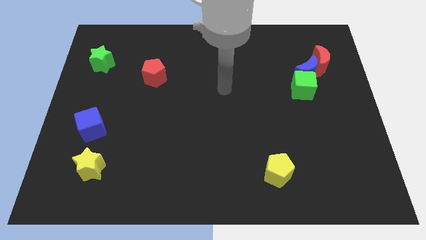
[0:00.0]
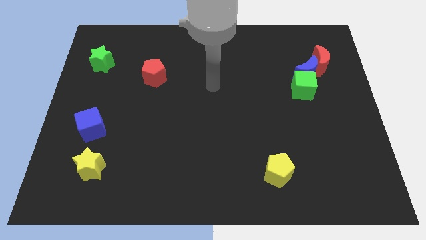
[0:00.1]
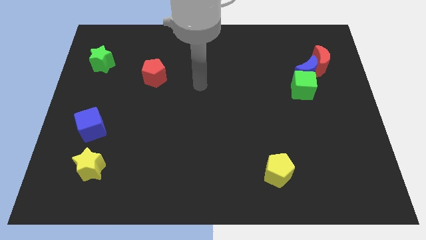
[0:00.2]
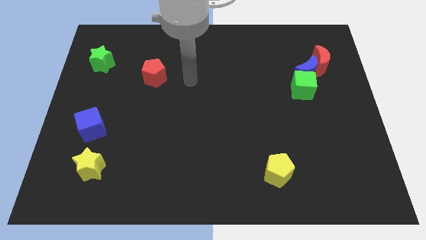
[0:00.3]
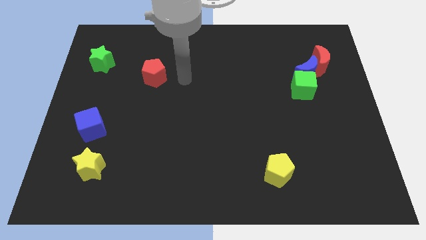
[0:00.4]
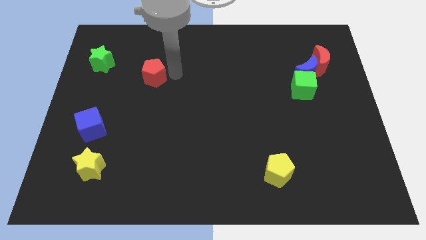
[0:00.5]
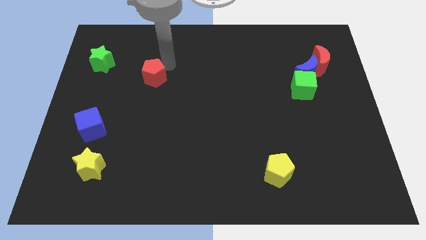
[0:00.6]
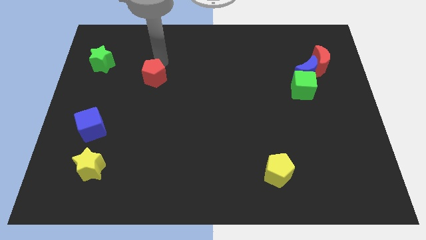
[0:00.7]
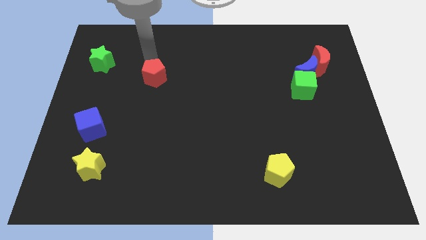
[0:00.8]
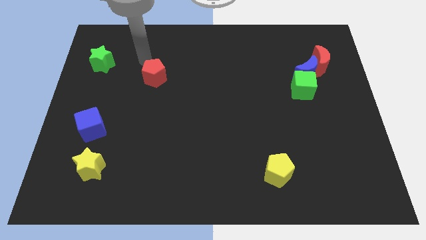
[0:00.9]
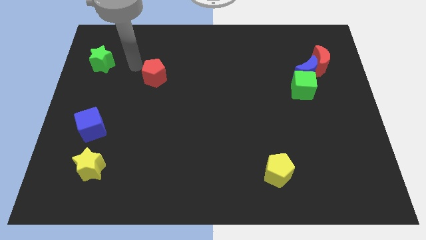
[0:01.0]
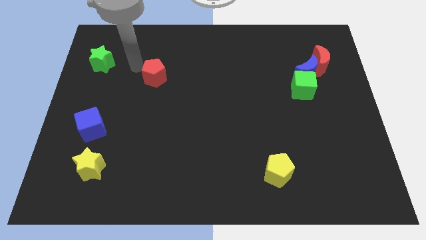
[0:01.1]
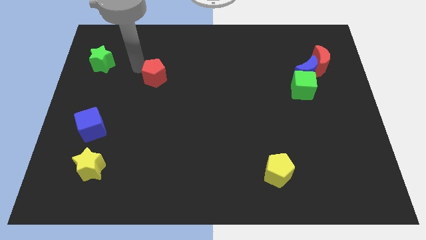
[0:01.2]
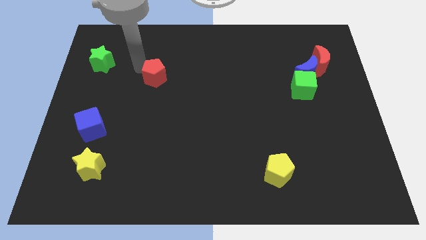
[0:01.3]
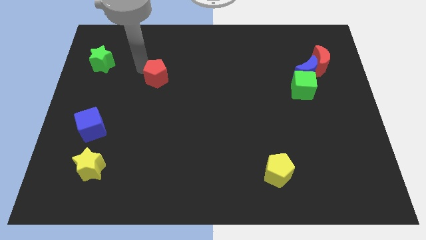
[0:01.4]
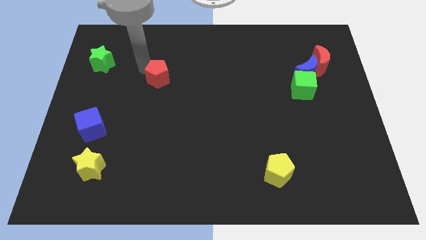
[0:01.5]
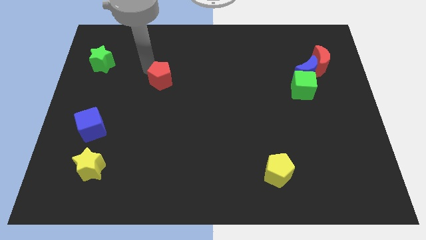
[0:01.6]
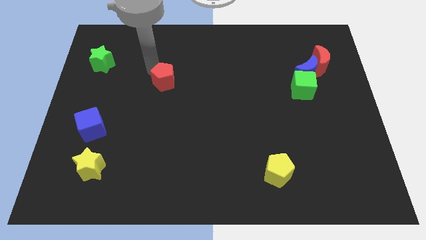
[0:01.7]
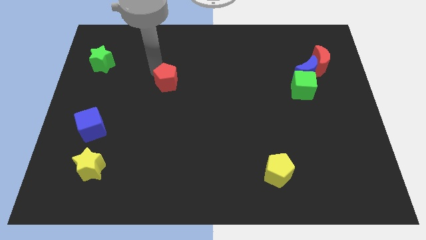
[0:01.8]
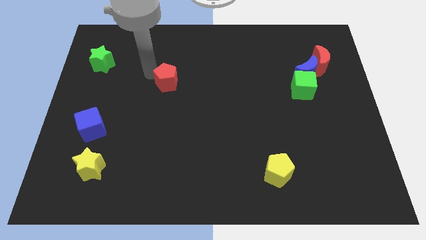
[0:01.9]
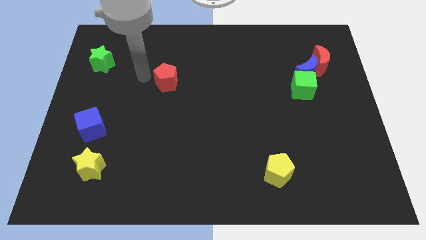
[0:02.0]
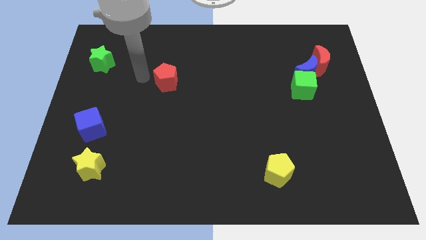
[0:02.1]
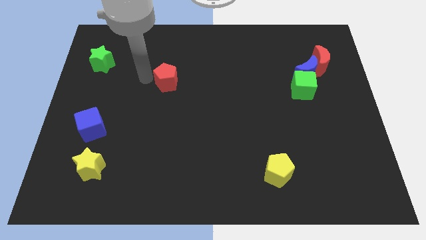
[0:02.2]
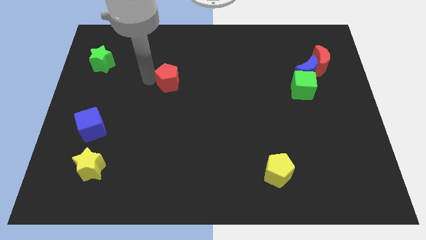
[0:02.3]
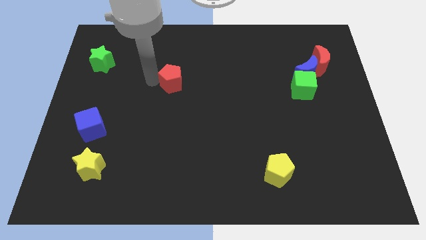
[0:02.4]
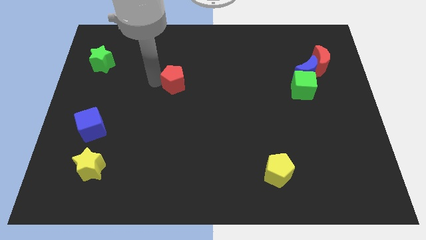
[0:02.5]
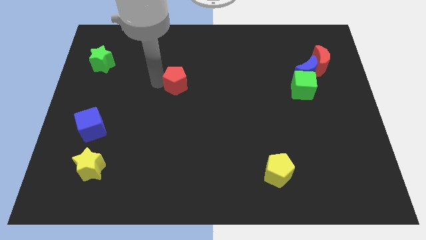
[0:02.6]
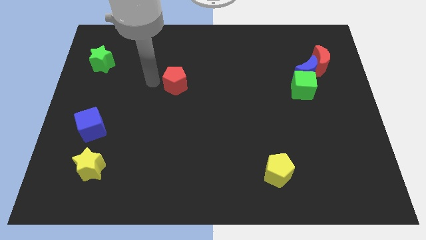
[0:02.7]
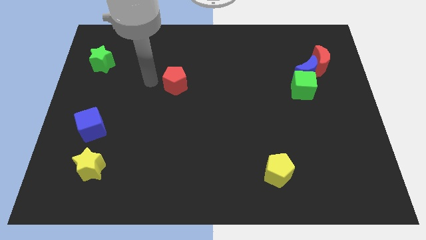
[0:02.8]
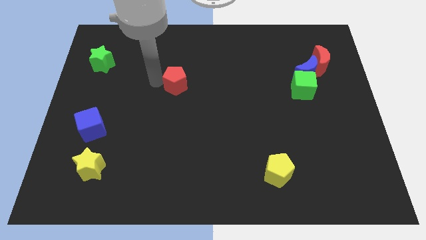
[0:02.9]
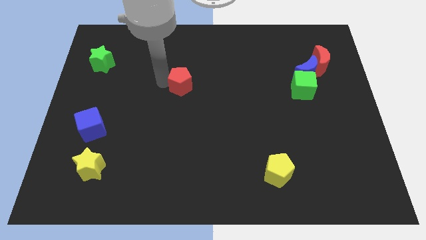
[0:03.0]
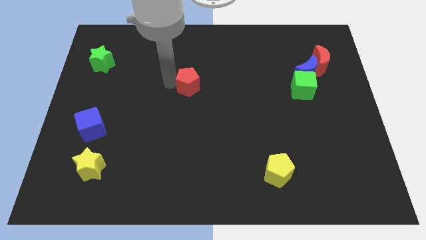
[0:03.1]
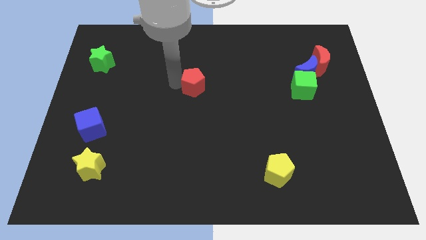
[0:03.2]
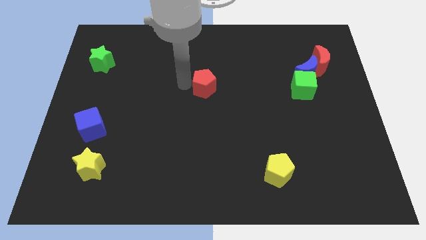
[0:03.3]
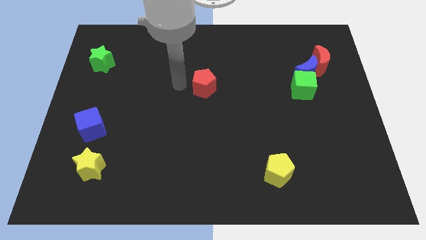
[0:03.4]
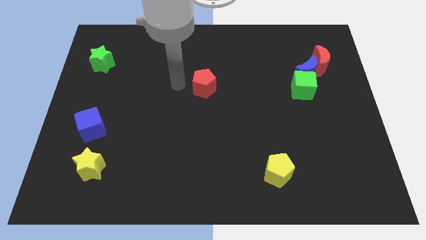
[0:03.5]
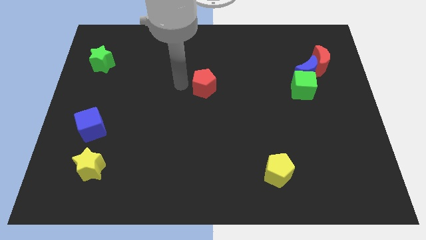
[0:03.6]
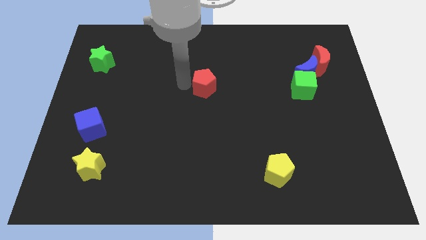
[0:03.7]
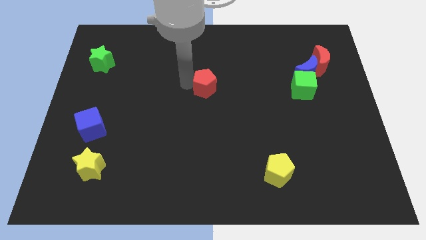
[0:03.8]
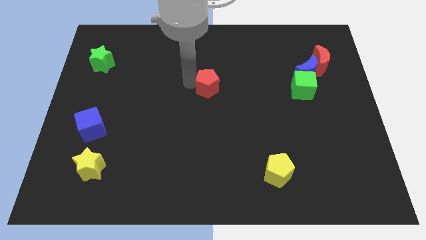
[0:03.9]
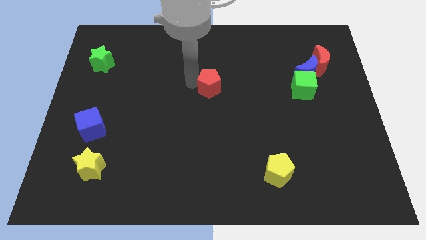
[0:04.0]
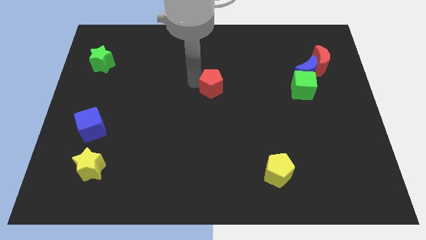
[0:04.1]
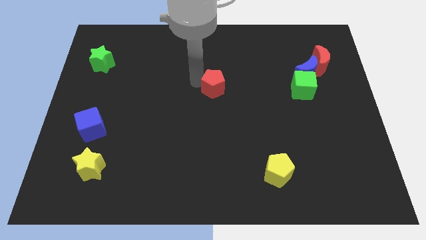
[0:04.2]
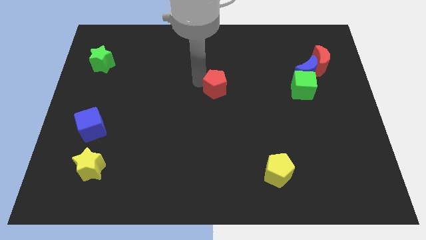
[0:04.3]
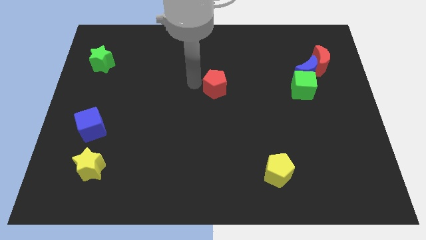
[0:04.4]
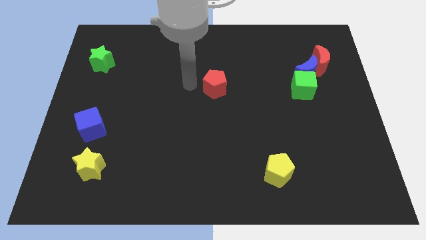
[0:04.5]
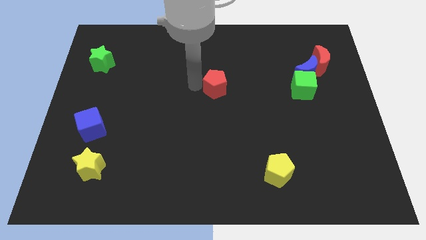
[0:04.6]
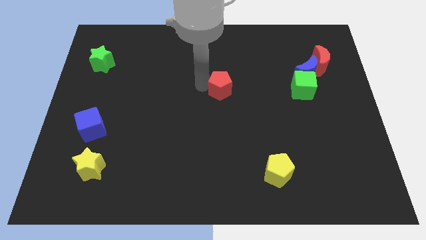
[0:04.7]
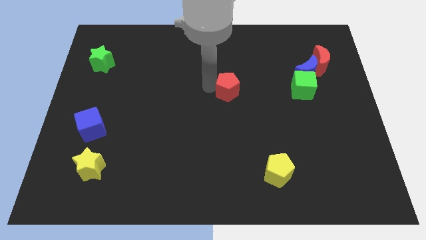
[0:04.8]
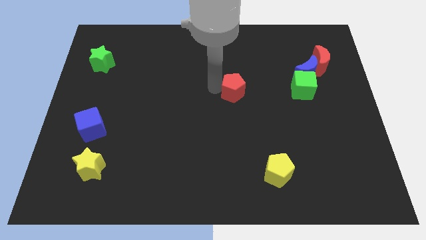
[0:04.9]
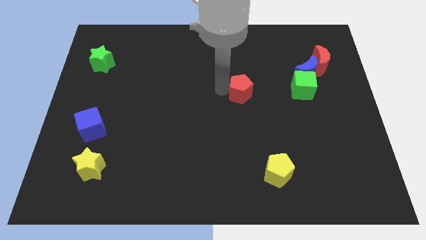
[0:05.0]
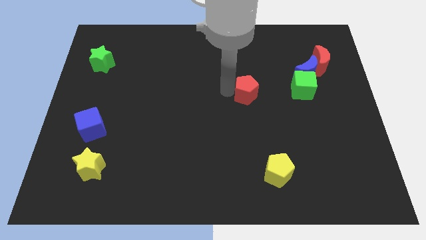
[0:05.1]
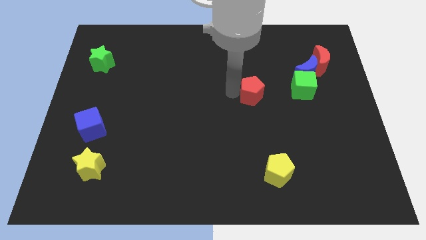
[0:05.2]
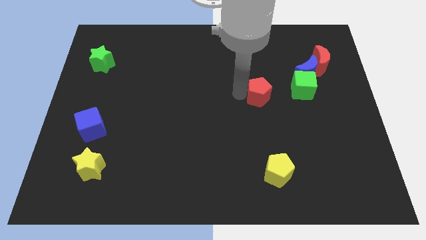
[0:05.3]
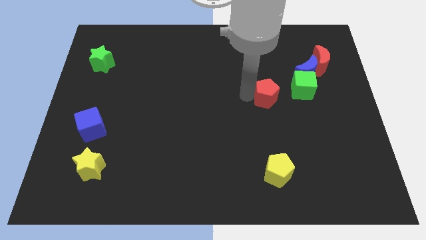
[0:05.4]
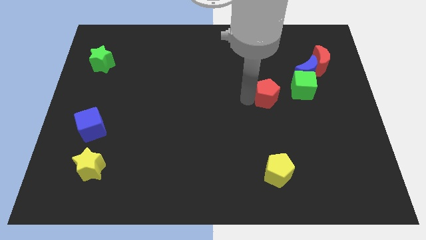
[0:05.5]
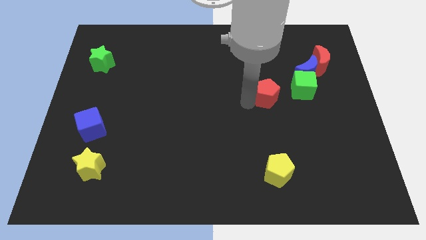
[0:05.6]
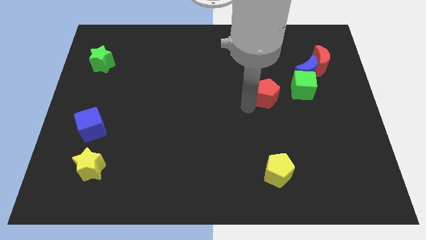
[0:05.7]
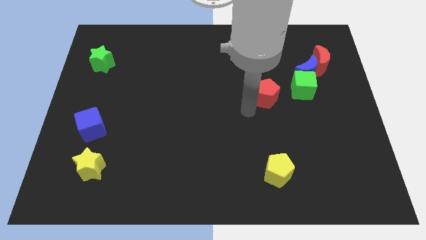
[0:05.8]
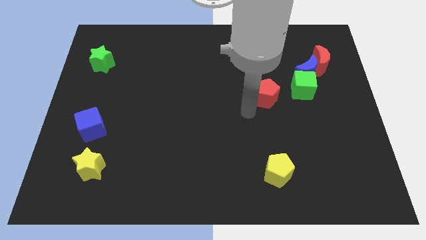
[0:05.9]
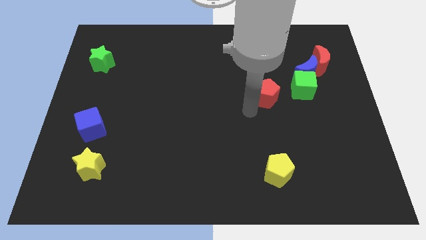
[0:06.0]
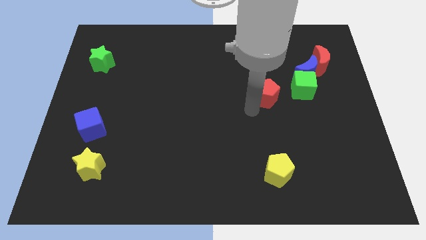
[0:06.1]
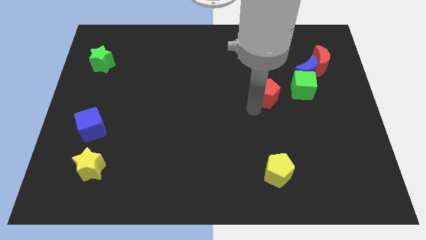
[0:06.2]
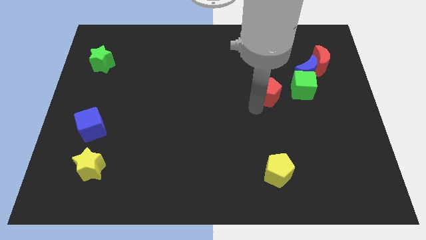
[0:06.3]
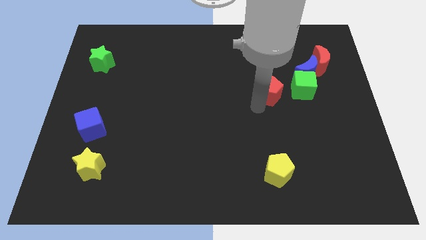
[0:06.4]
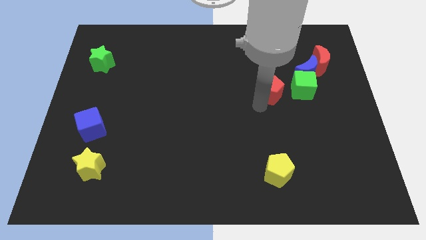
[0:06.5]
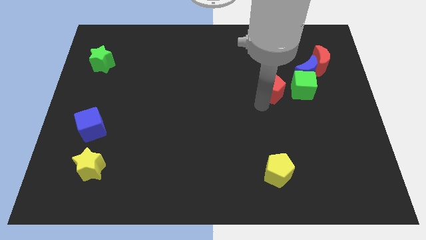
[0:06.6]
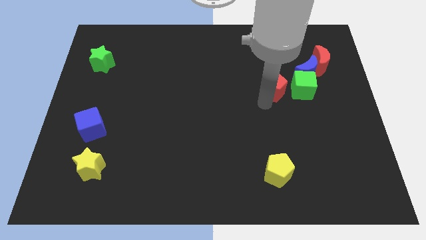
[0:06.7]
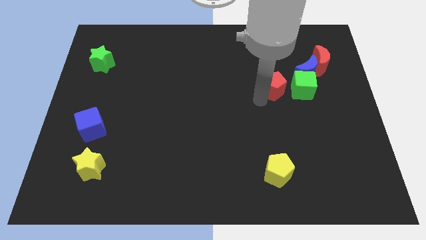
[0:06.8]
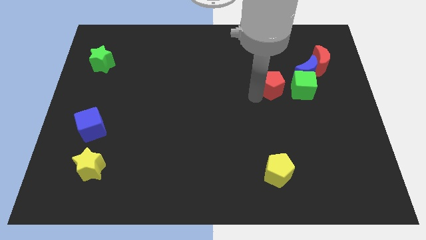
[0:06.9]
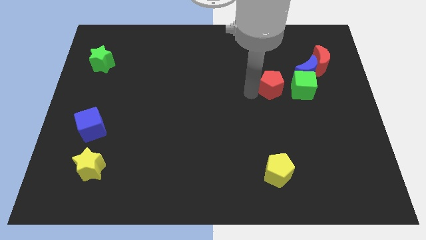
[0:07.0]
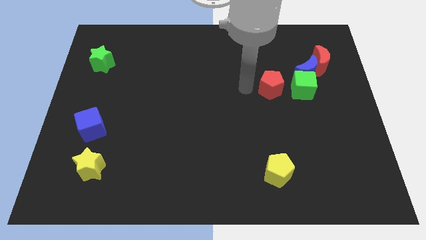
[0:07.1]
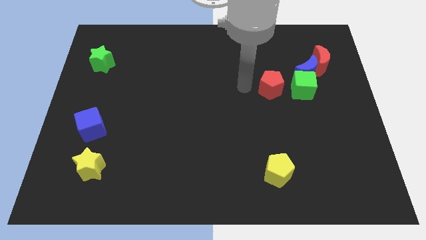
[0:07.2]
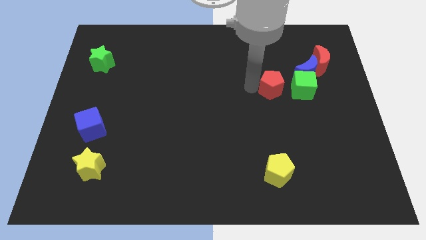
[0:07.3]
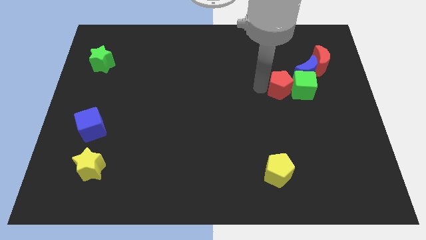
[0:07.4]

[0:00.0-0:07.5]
put the red pentagon to the green cube
